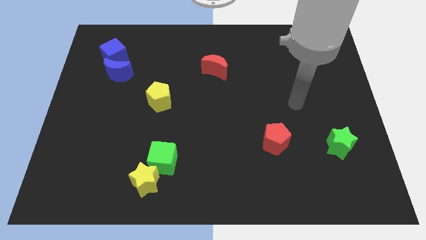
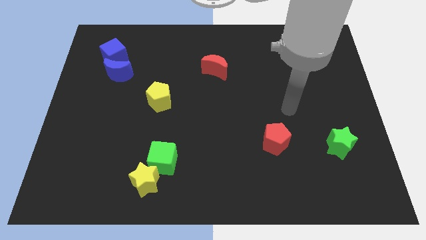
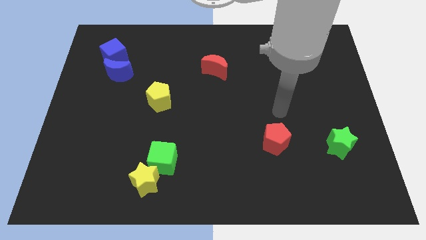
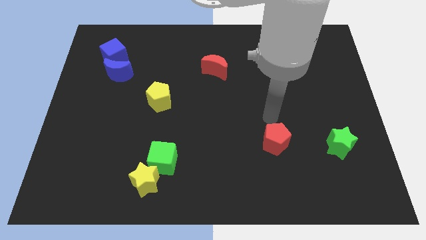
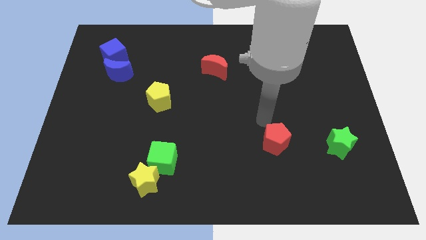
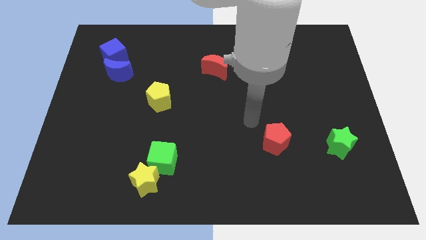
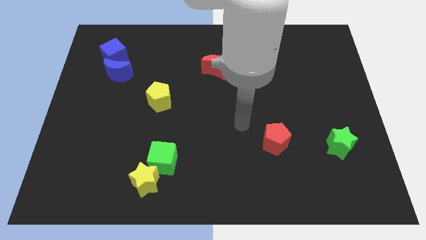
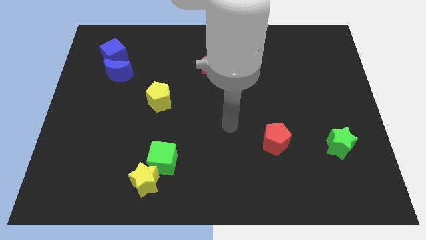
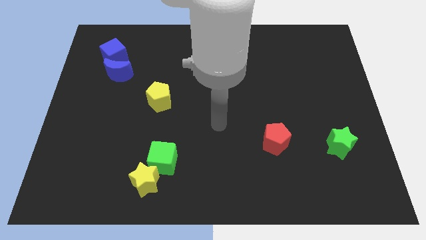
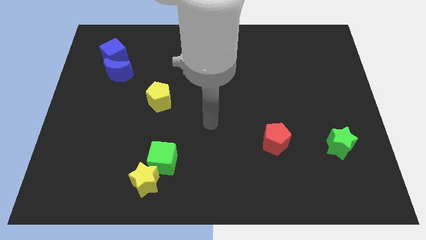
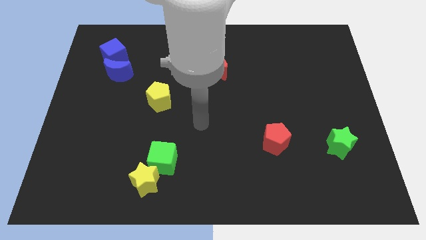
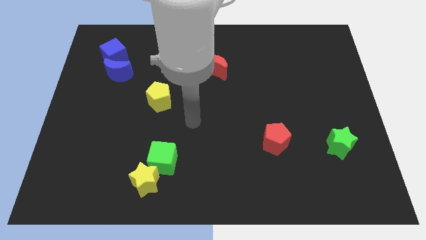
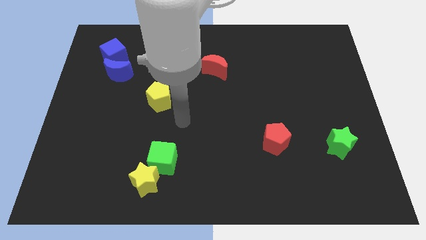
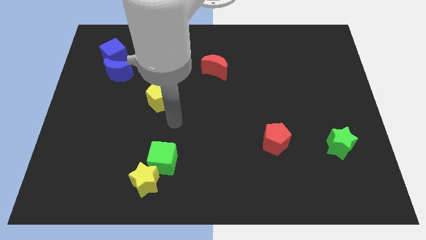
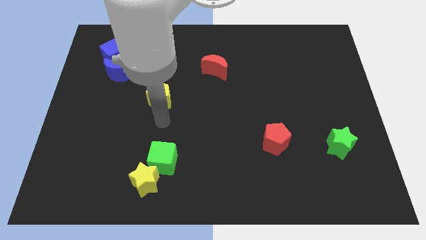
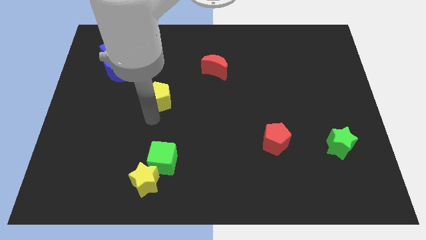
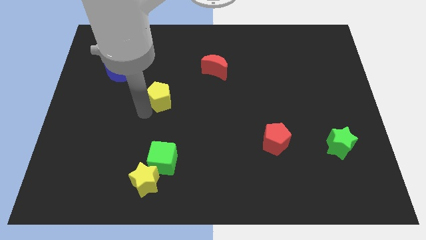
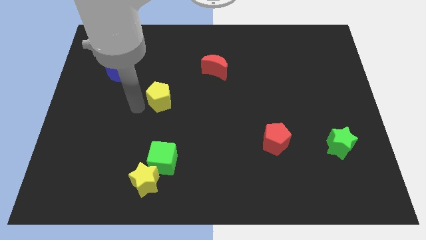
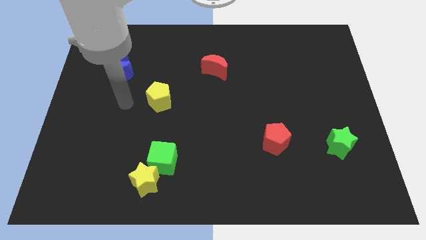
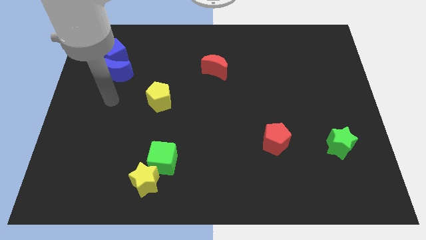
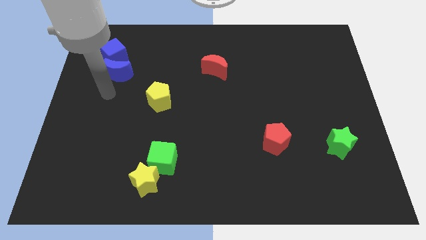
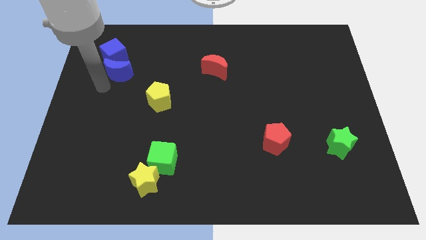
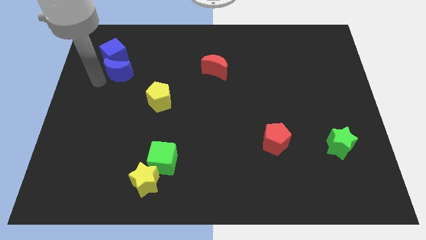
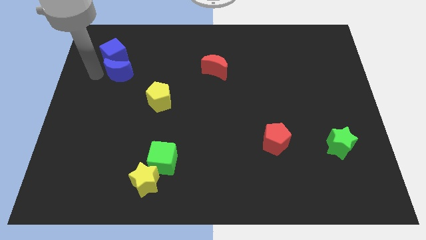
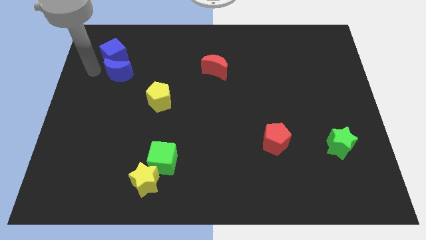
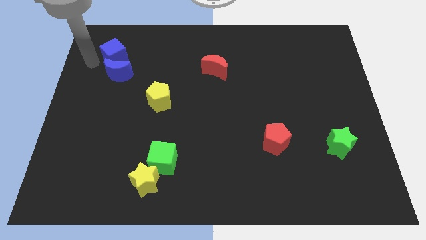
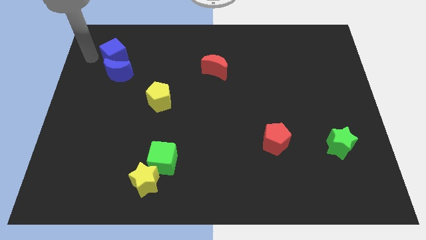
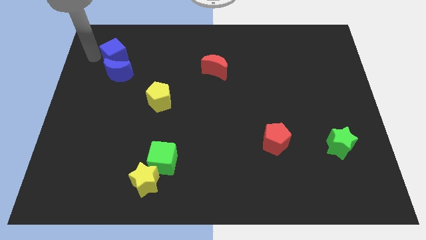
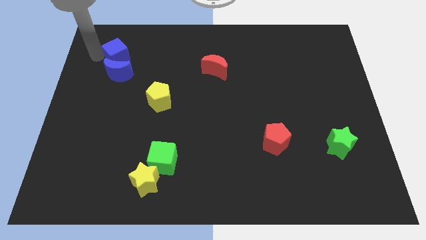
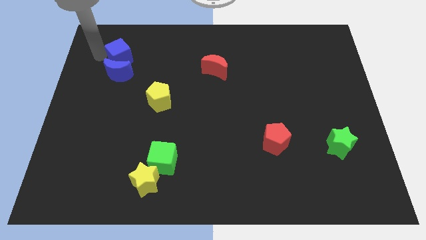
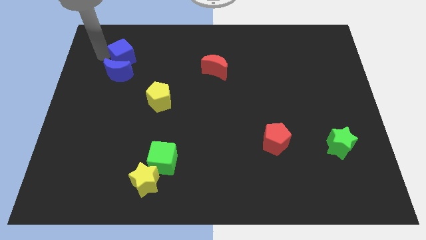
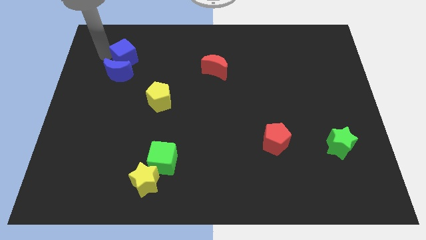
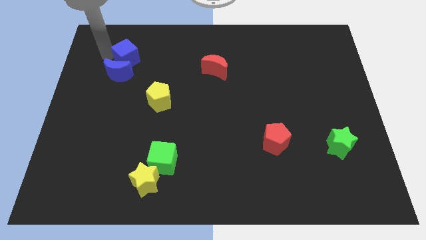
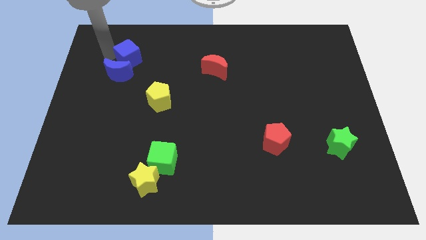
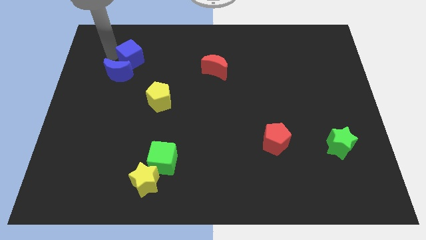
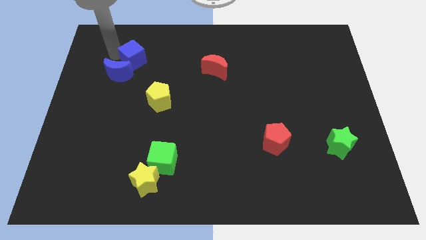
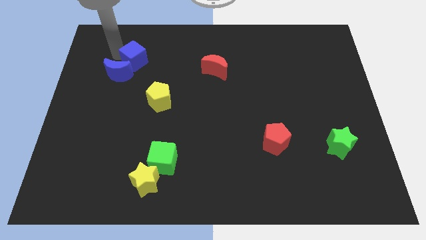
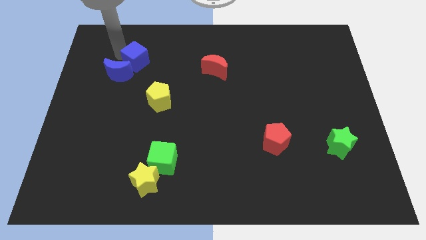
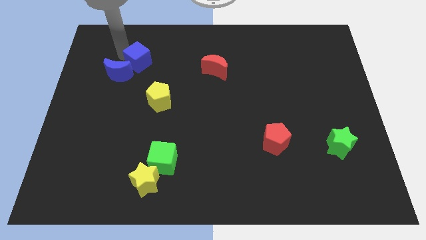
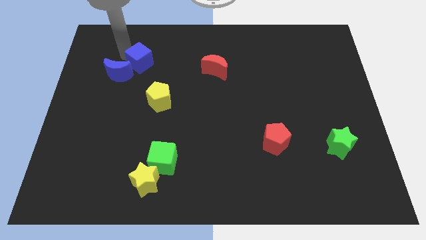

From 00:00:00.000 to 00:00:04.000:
slightly slide the blue cube right

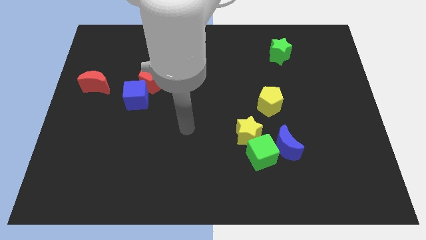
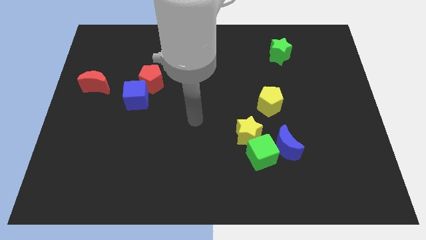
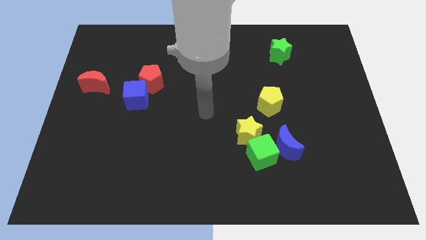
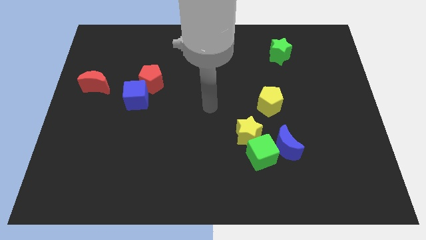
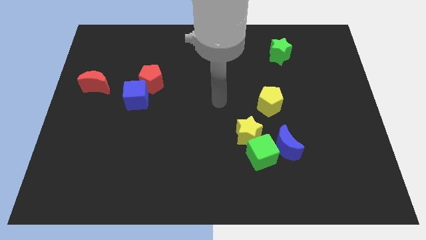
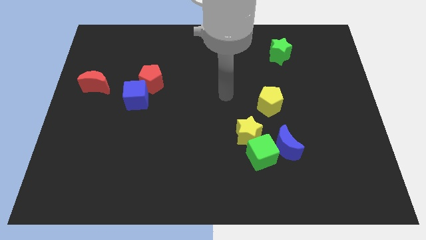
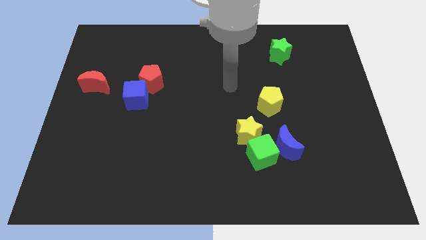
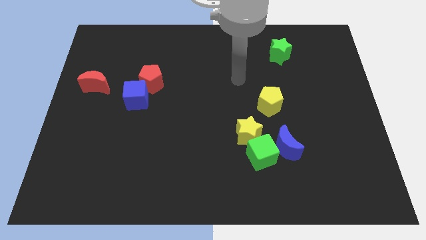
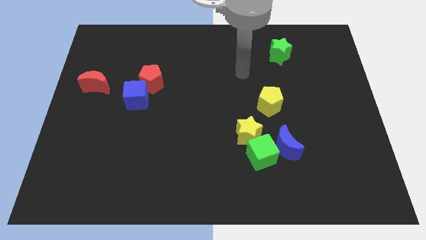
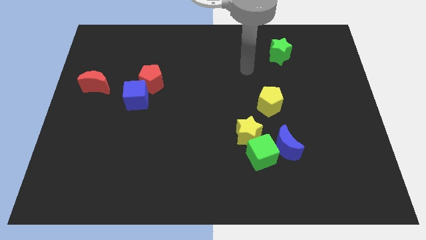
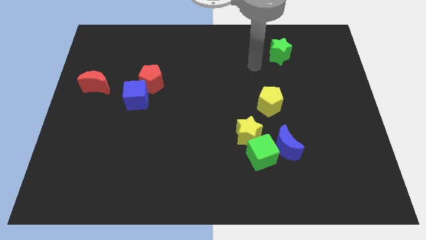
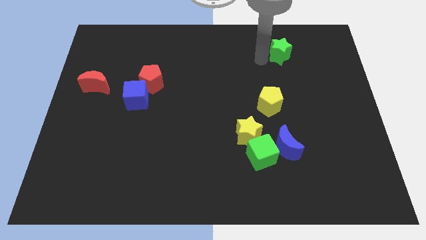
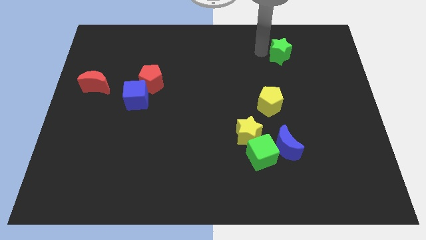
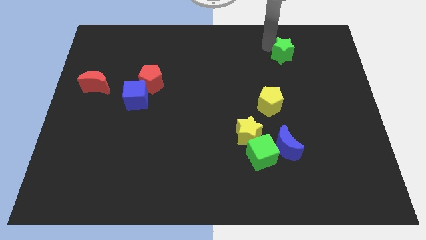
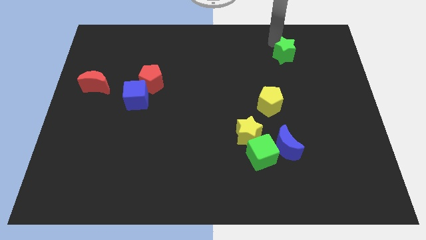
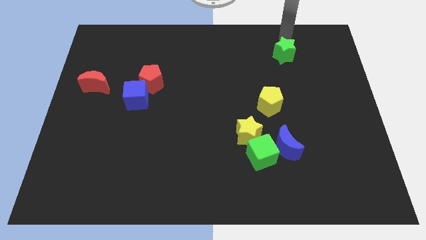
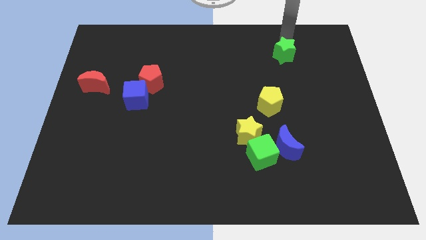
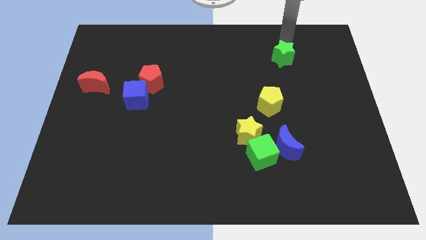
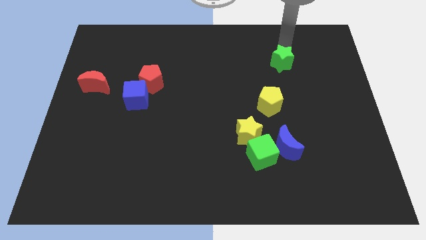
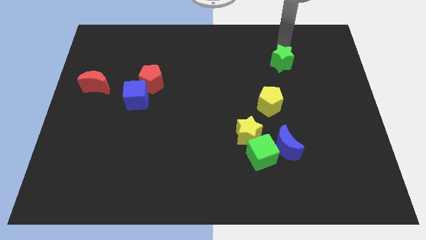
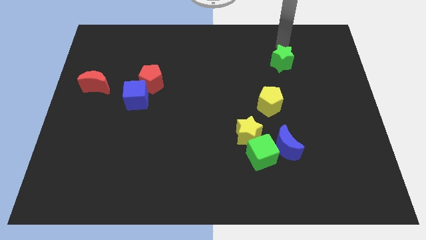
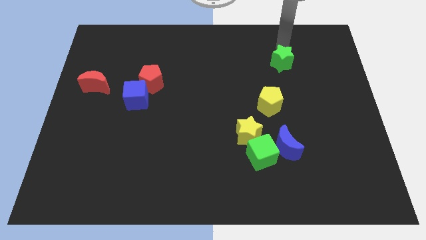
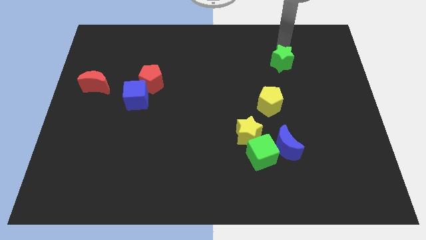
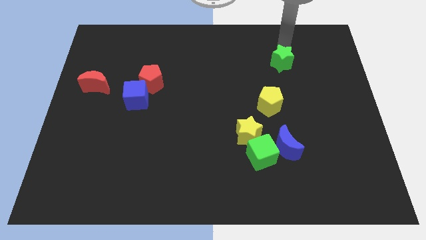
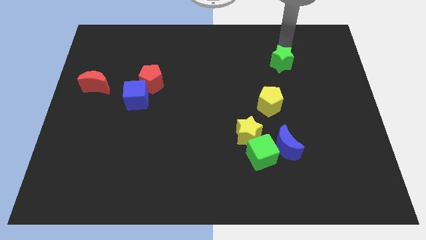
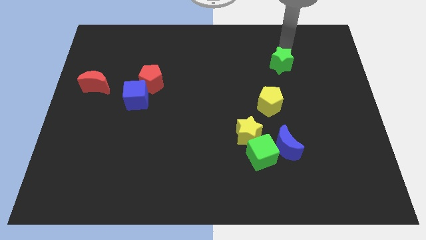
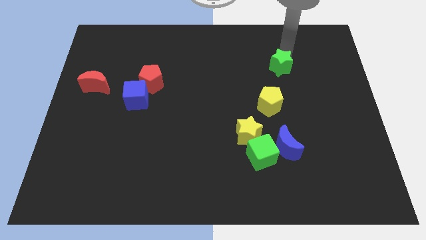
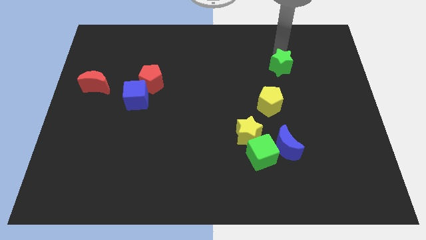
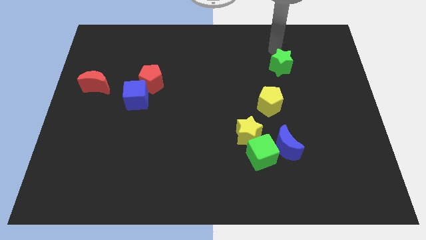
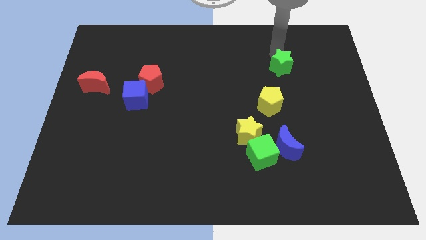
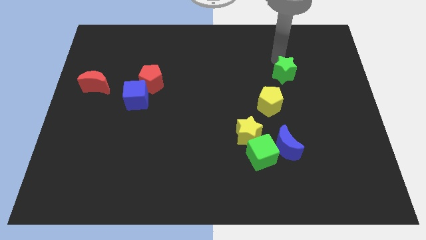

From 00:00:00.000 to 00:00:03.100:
move the green star down slightly

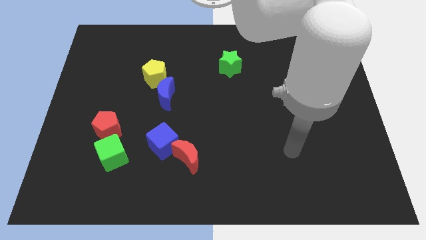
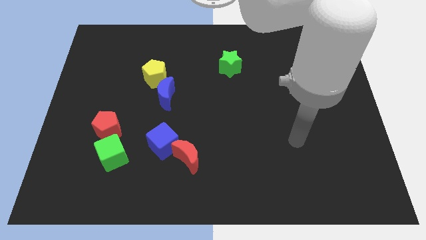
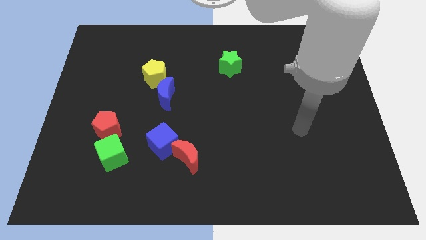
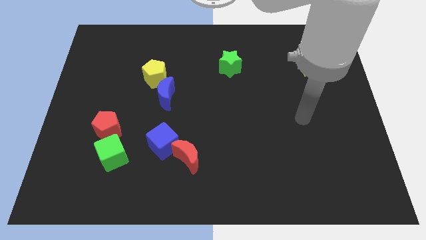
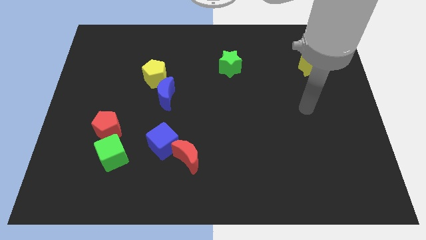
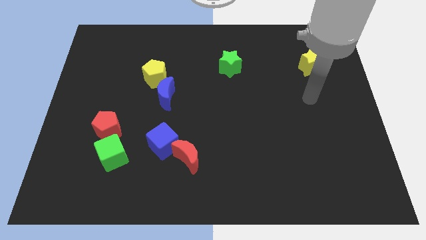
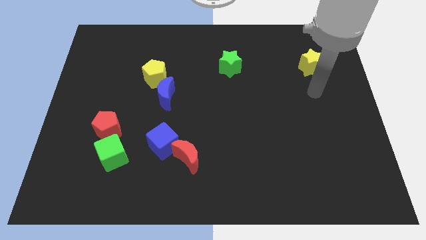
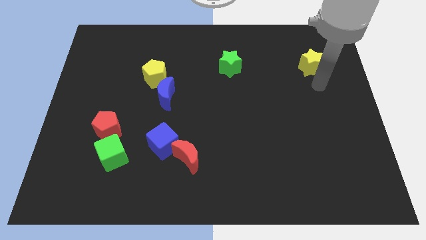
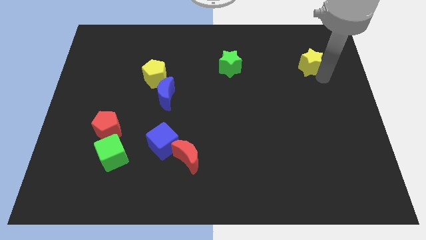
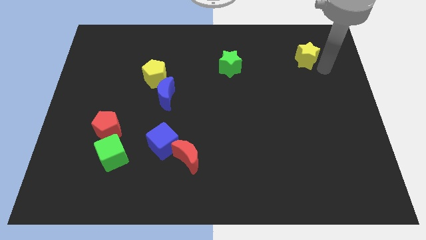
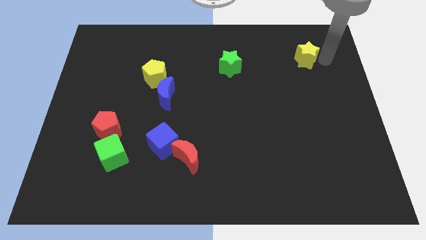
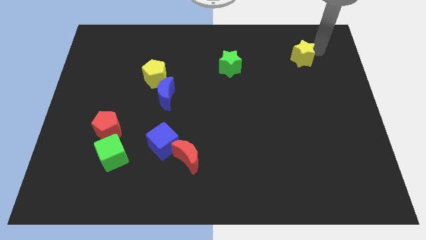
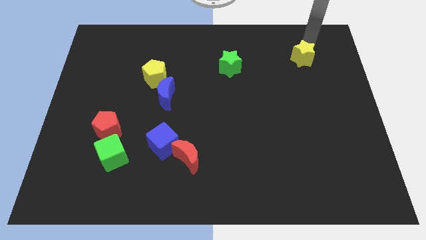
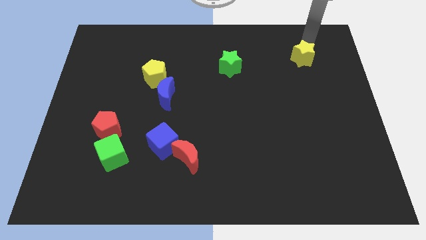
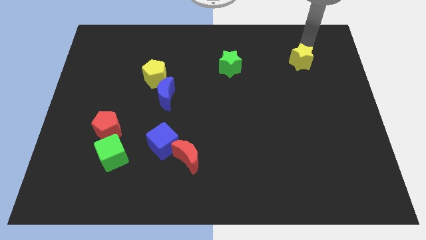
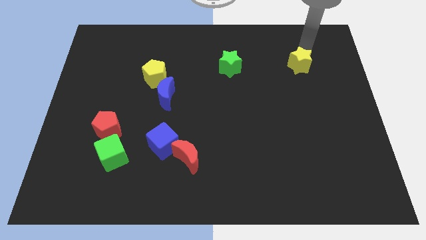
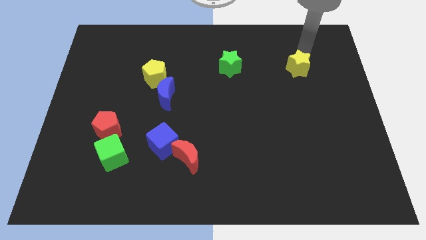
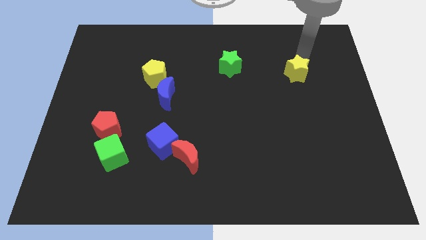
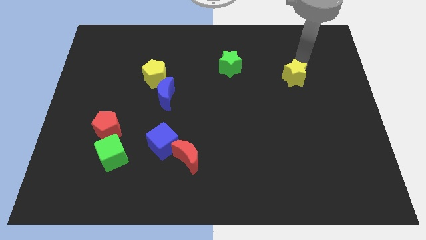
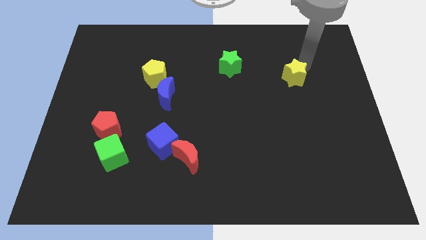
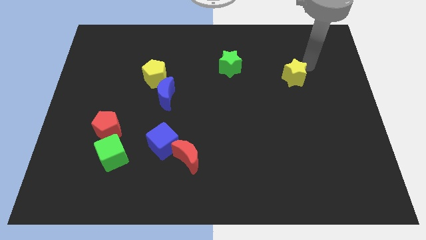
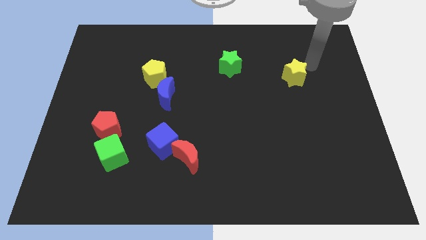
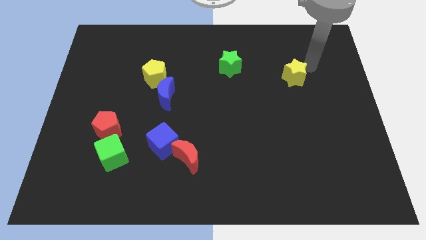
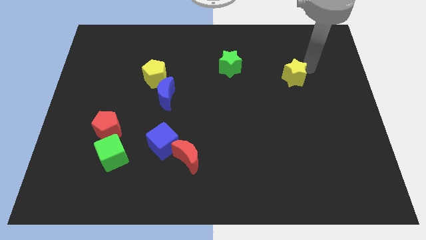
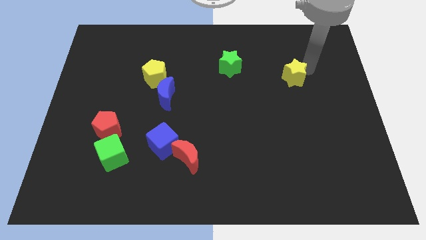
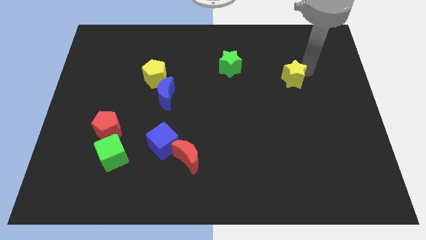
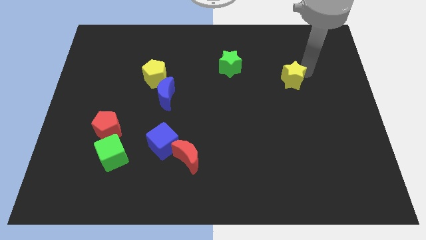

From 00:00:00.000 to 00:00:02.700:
push the yellow star a bit down and left
